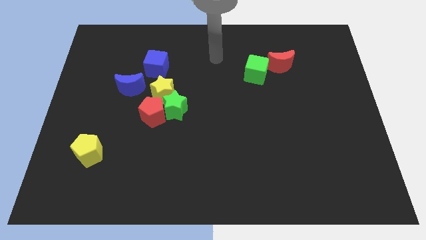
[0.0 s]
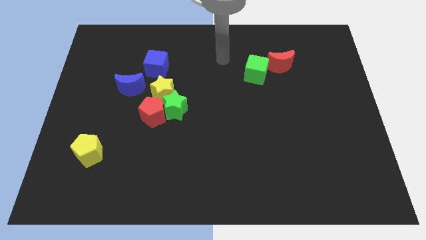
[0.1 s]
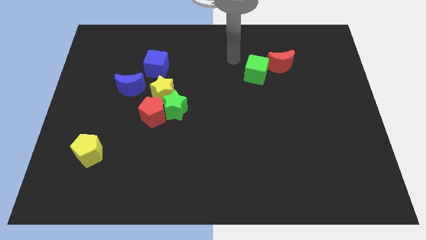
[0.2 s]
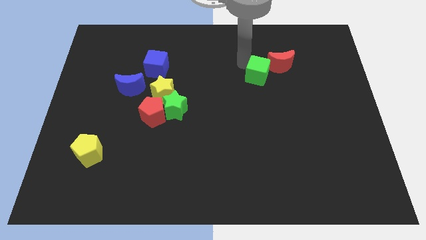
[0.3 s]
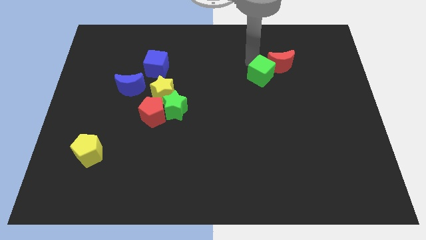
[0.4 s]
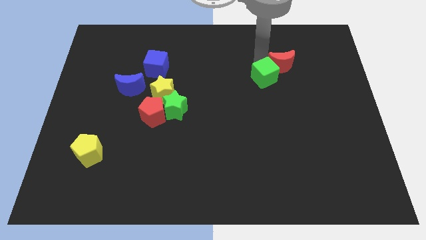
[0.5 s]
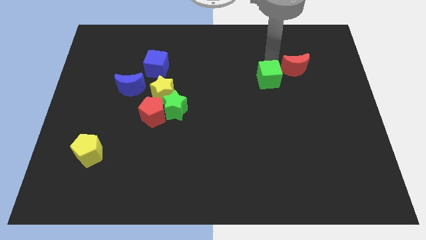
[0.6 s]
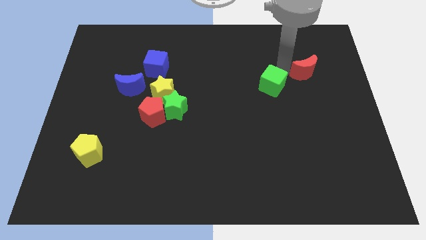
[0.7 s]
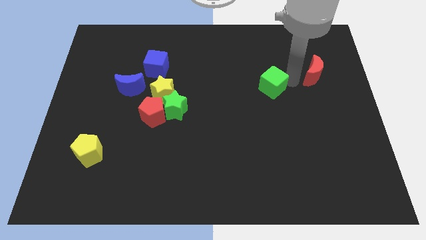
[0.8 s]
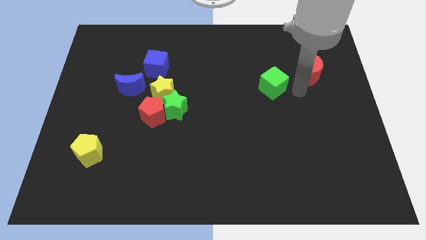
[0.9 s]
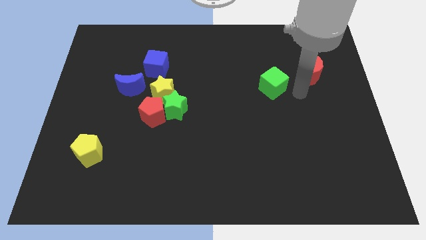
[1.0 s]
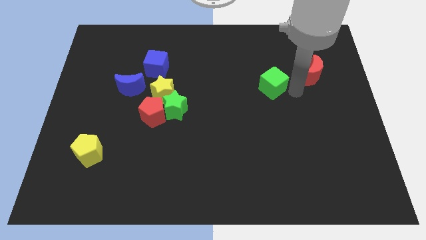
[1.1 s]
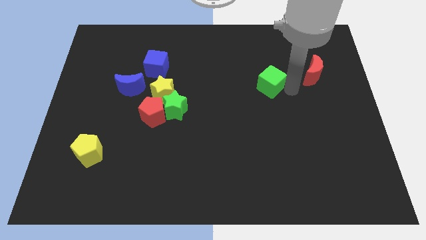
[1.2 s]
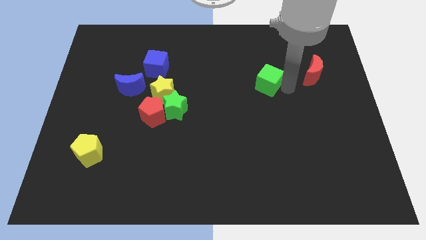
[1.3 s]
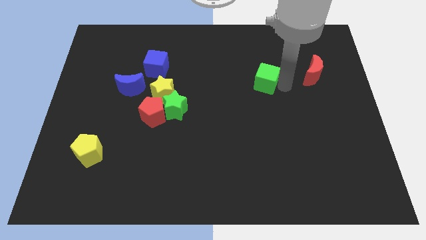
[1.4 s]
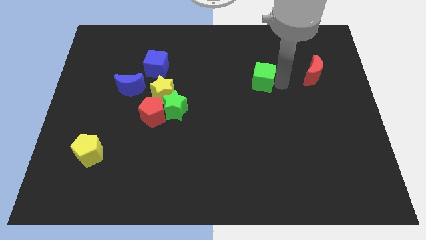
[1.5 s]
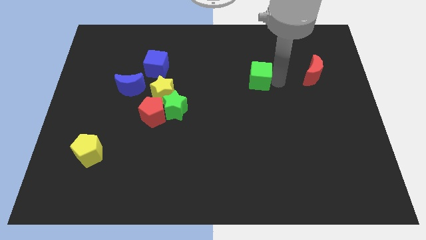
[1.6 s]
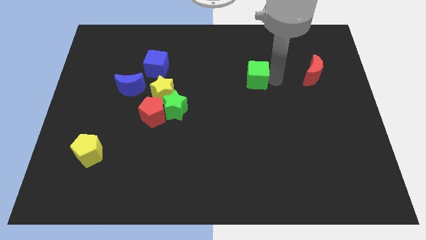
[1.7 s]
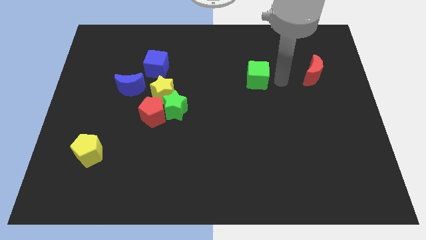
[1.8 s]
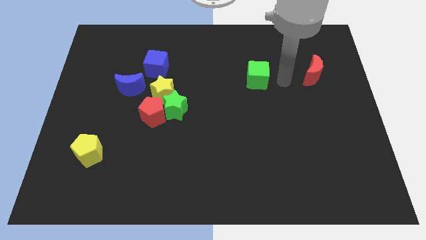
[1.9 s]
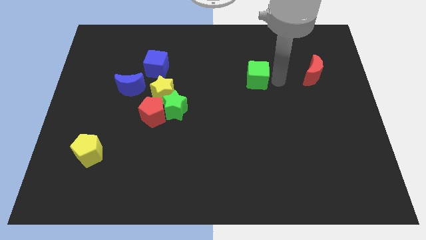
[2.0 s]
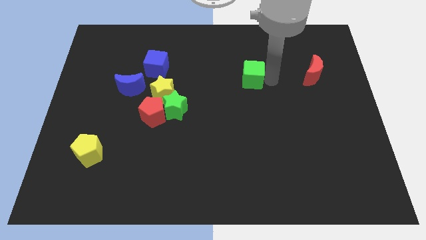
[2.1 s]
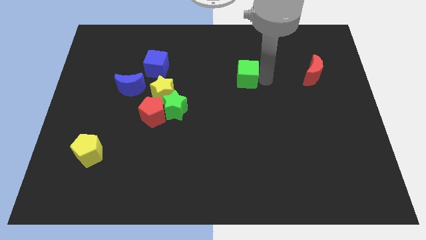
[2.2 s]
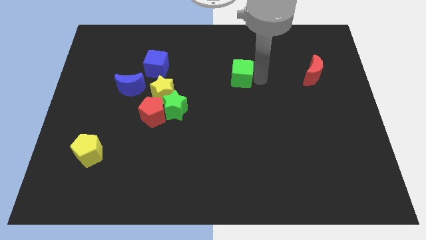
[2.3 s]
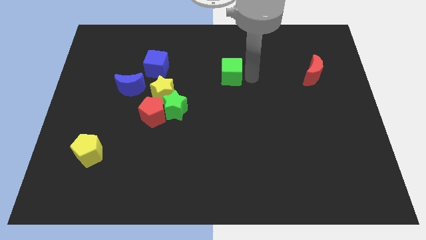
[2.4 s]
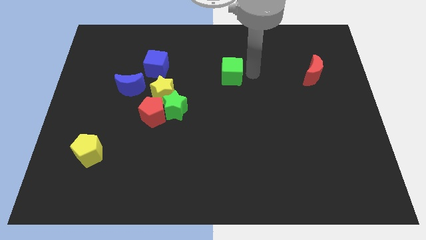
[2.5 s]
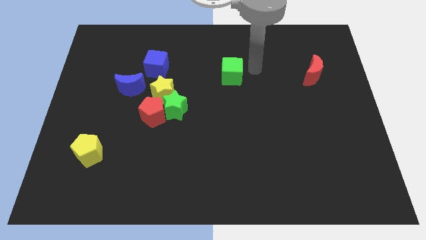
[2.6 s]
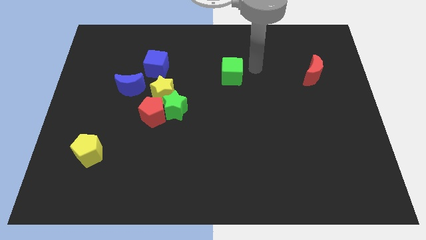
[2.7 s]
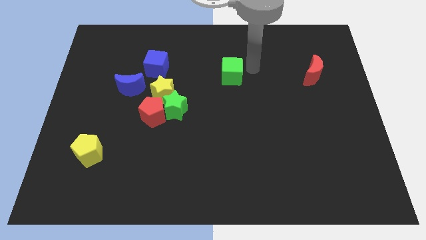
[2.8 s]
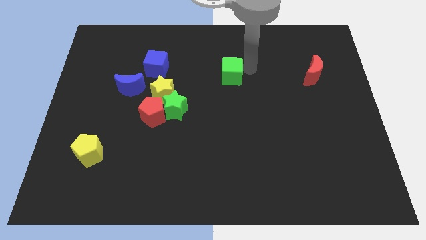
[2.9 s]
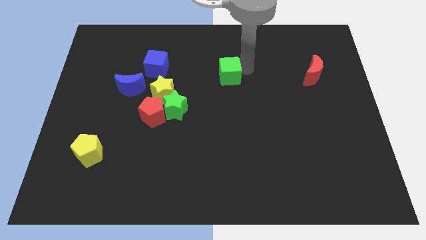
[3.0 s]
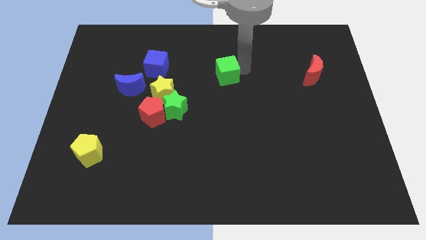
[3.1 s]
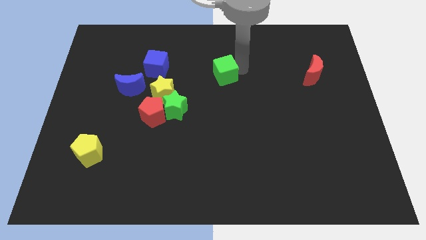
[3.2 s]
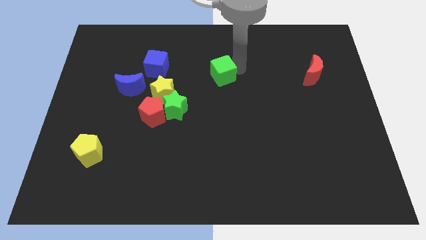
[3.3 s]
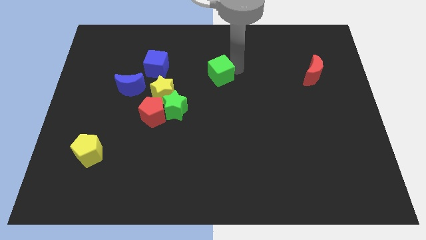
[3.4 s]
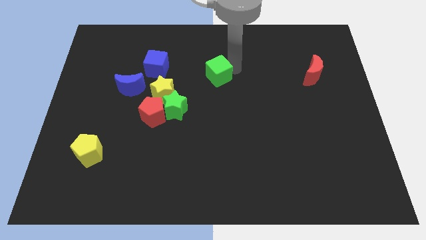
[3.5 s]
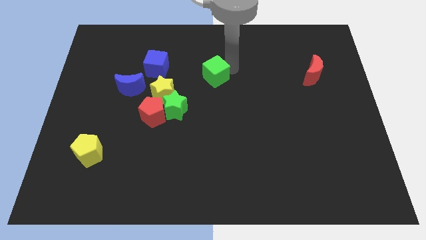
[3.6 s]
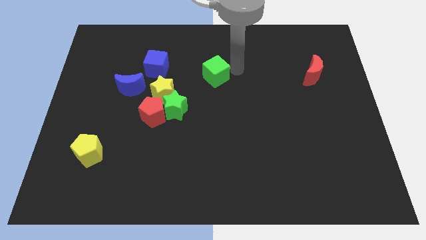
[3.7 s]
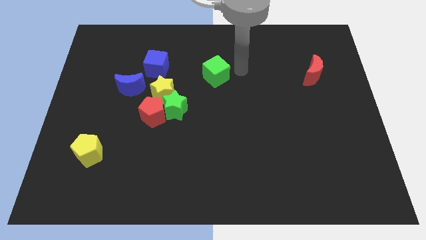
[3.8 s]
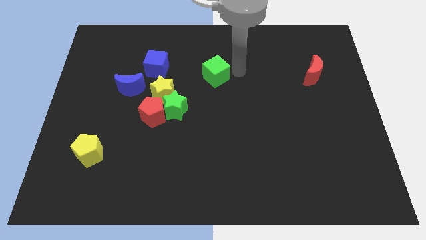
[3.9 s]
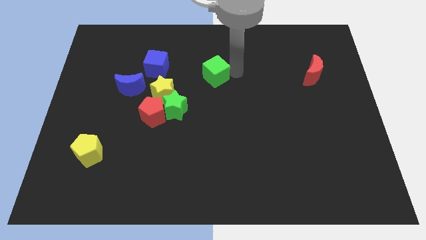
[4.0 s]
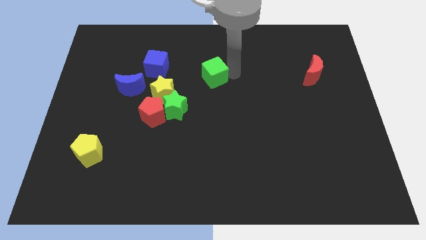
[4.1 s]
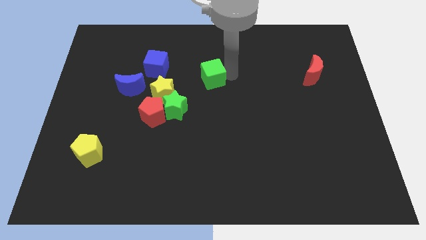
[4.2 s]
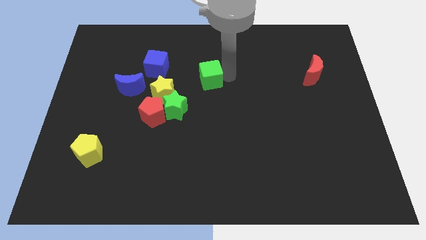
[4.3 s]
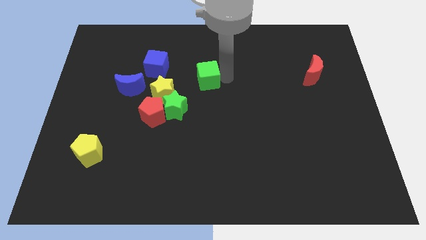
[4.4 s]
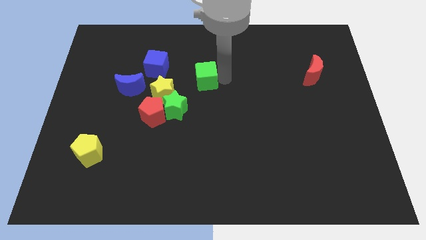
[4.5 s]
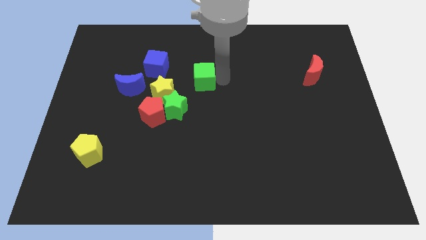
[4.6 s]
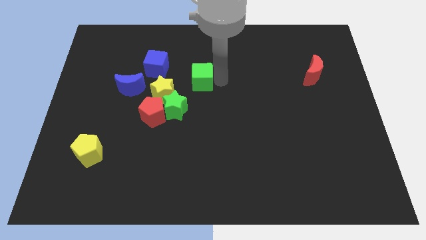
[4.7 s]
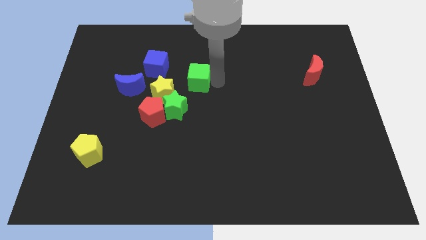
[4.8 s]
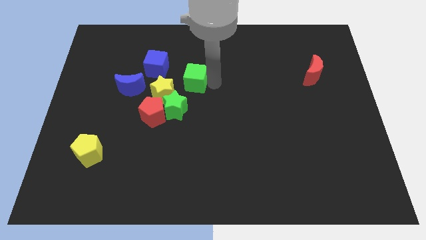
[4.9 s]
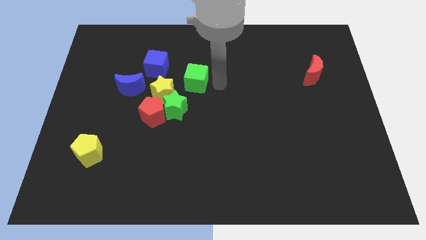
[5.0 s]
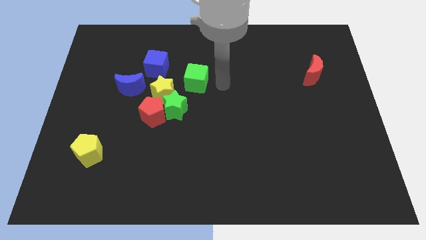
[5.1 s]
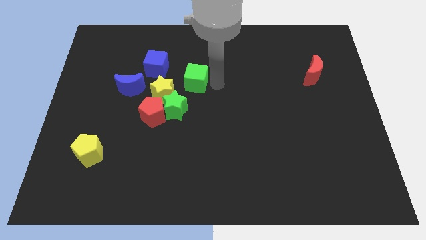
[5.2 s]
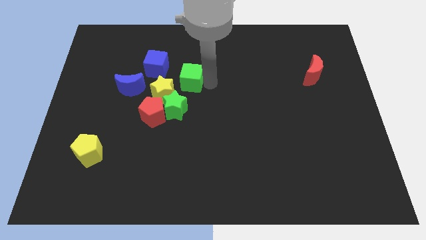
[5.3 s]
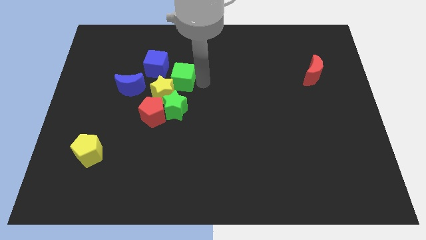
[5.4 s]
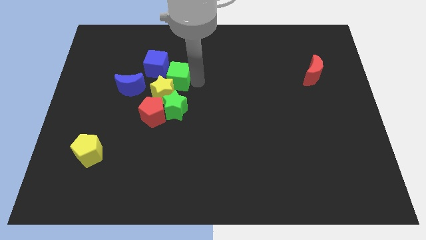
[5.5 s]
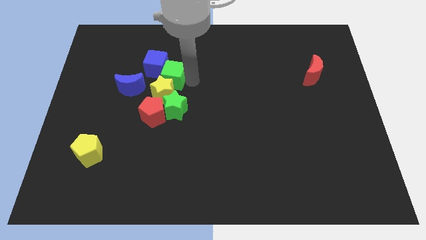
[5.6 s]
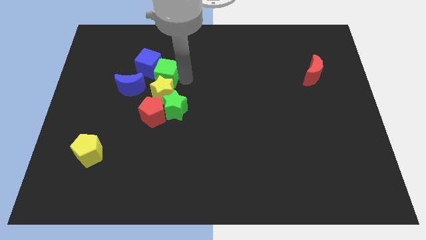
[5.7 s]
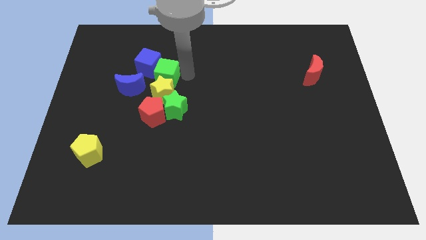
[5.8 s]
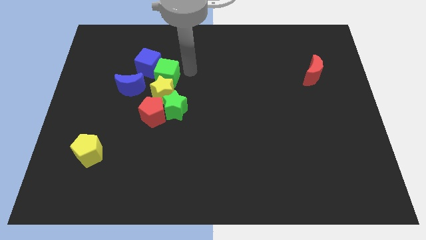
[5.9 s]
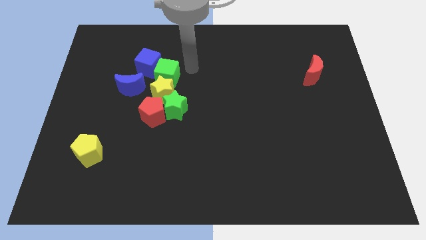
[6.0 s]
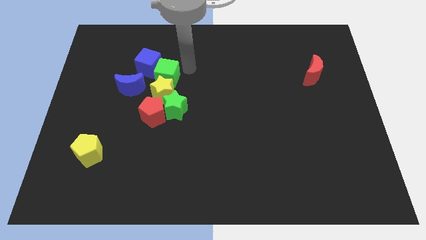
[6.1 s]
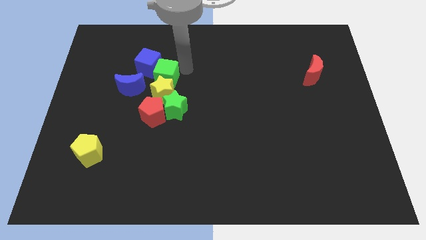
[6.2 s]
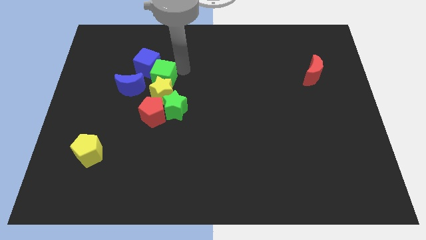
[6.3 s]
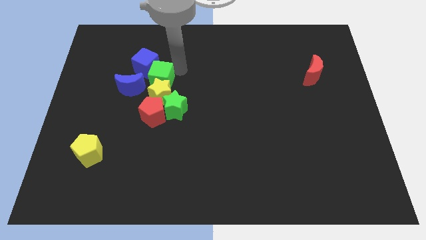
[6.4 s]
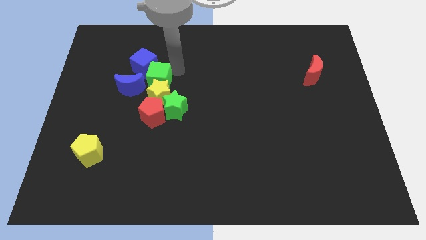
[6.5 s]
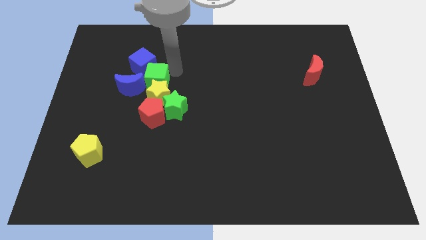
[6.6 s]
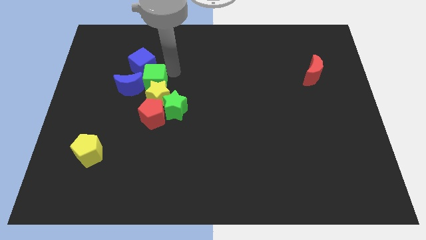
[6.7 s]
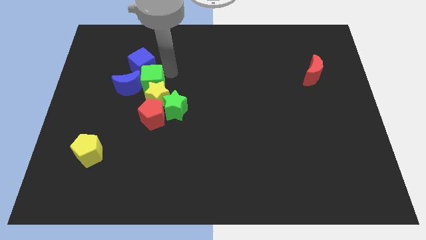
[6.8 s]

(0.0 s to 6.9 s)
slide the green cube to the blue moon

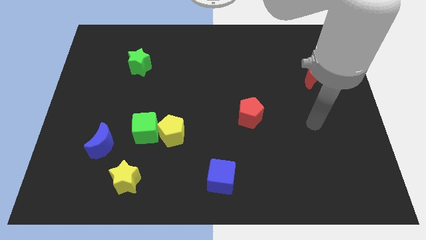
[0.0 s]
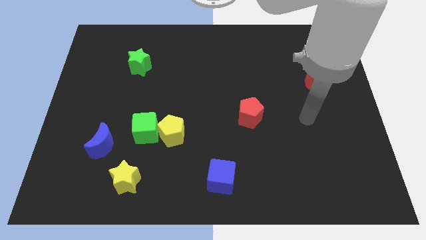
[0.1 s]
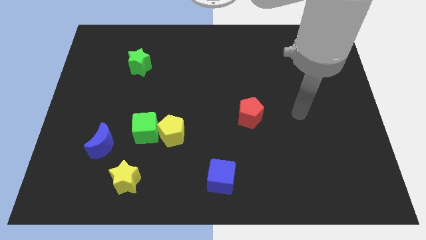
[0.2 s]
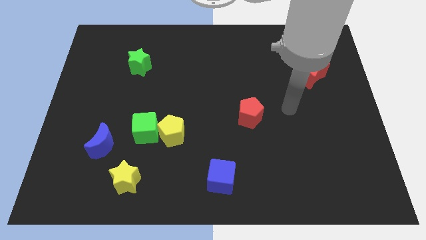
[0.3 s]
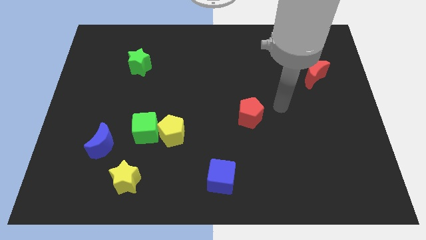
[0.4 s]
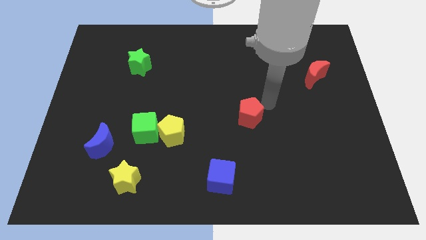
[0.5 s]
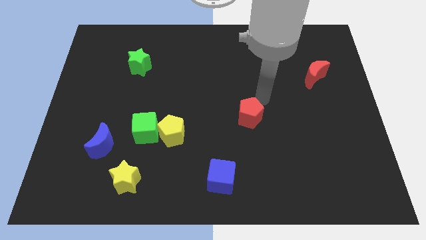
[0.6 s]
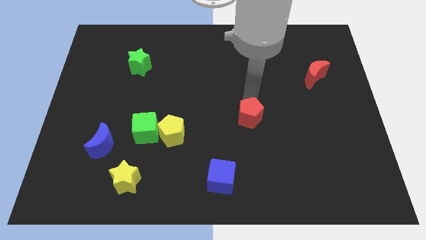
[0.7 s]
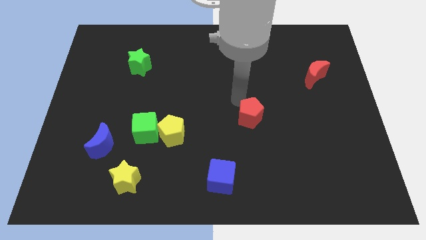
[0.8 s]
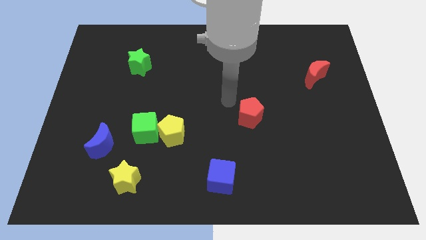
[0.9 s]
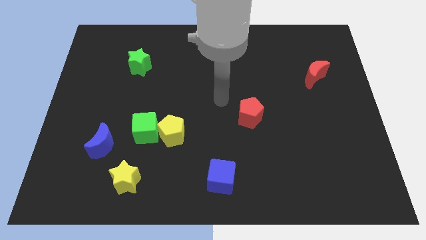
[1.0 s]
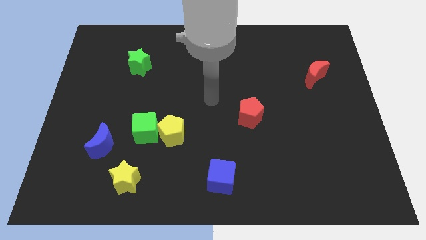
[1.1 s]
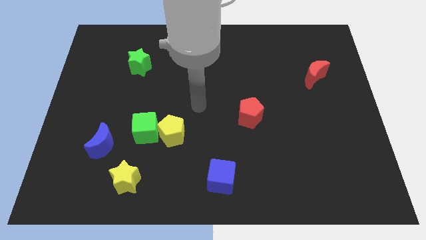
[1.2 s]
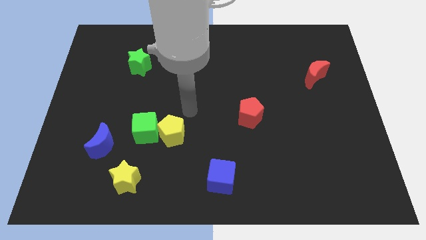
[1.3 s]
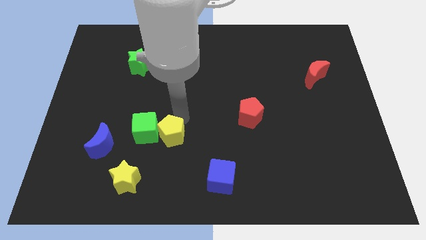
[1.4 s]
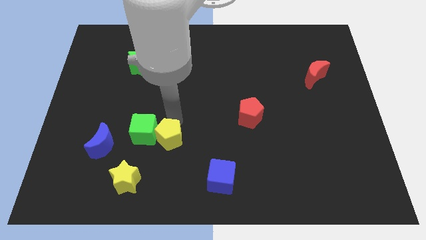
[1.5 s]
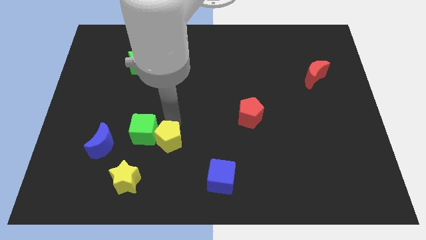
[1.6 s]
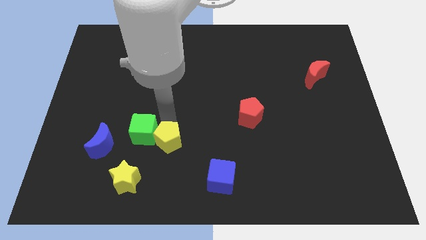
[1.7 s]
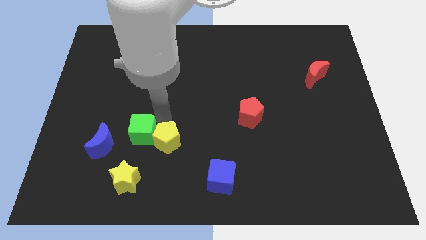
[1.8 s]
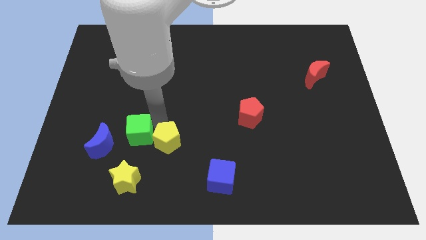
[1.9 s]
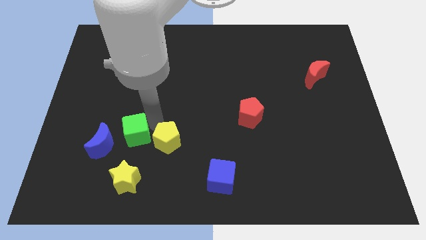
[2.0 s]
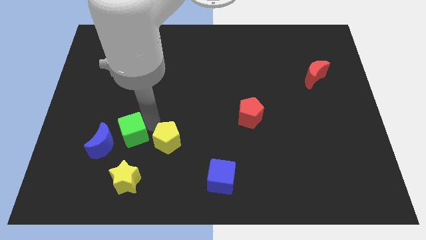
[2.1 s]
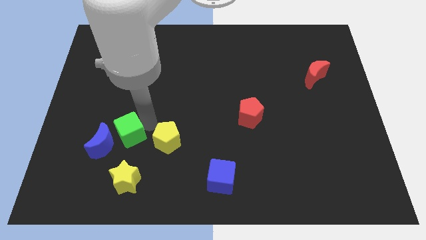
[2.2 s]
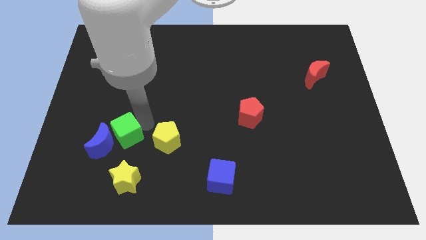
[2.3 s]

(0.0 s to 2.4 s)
slide the green cube towards the blue moon
